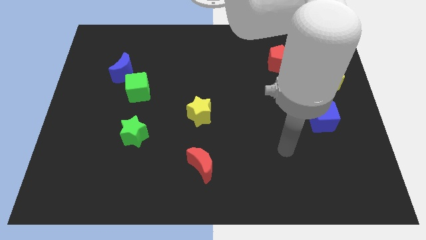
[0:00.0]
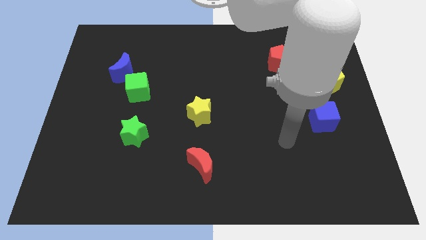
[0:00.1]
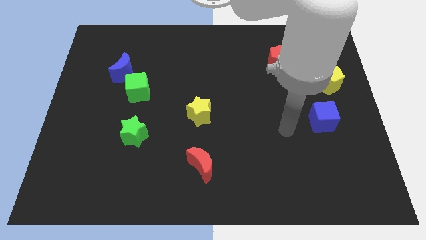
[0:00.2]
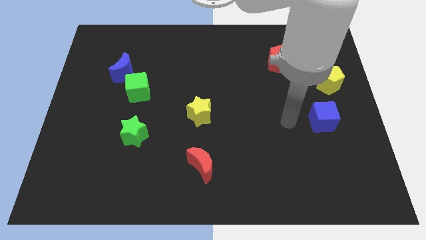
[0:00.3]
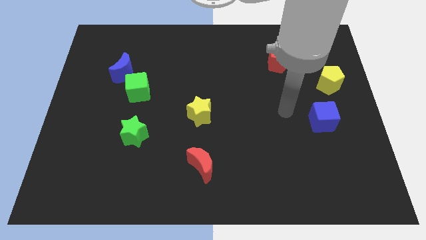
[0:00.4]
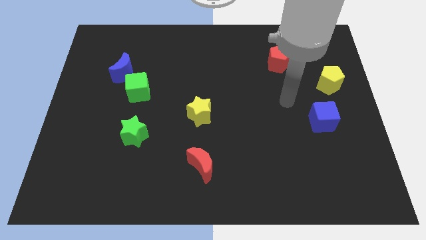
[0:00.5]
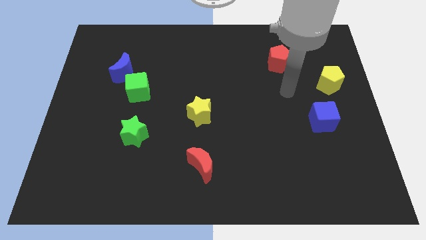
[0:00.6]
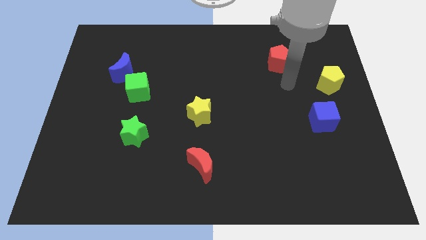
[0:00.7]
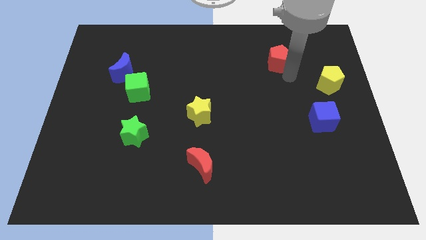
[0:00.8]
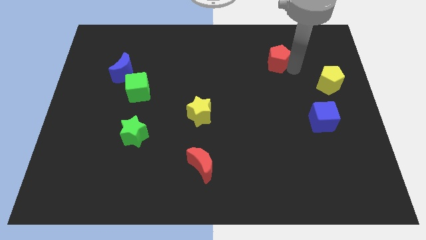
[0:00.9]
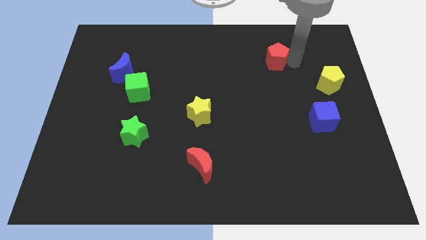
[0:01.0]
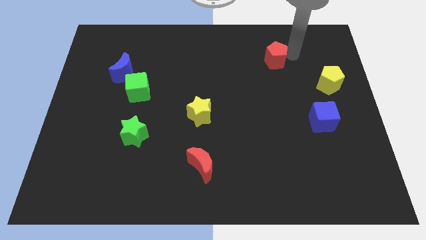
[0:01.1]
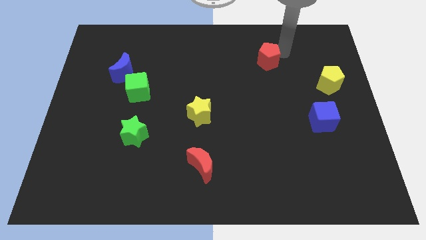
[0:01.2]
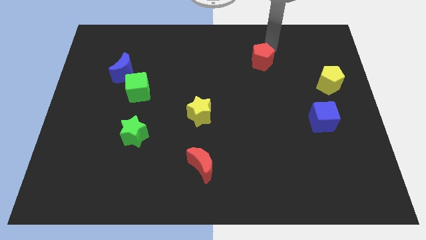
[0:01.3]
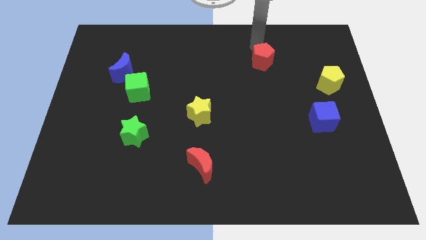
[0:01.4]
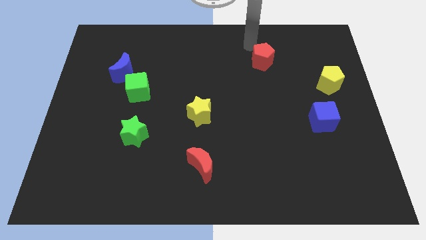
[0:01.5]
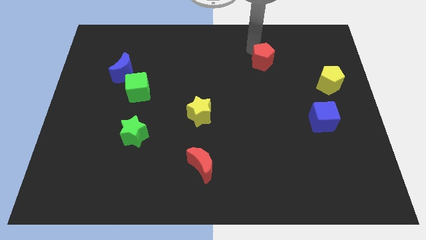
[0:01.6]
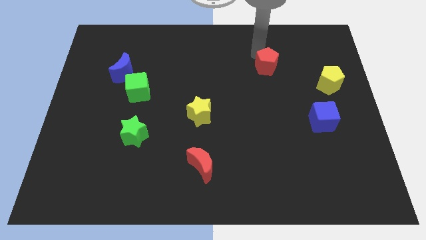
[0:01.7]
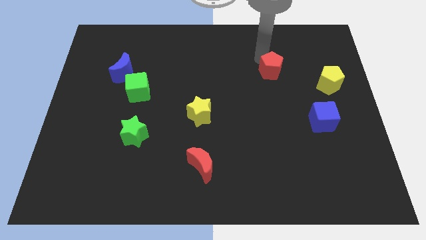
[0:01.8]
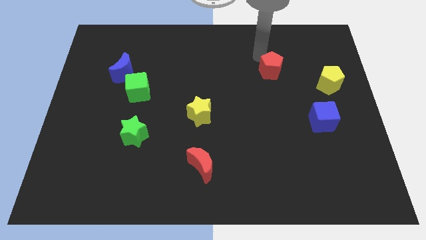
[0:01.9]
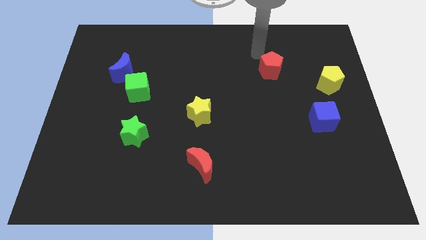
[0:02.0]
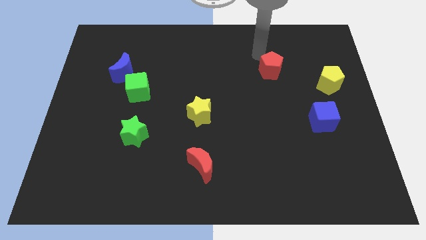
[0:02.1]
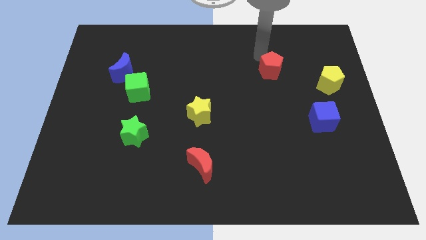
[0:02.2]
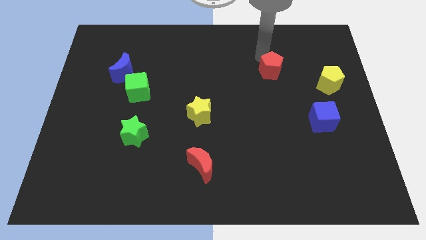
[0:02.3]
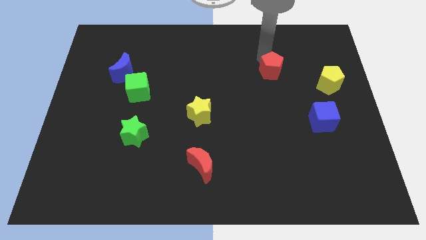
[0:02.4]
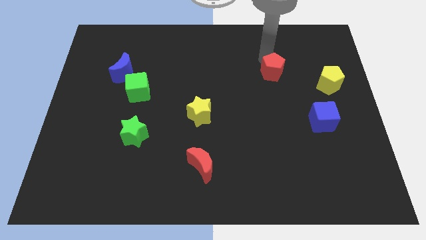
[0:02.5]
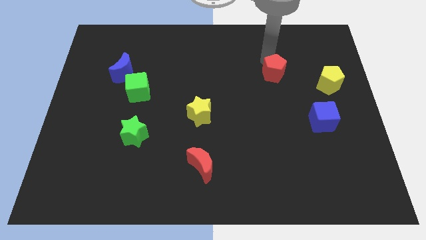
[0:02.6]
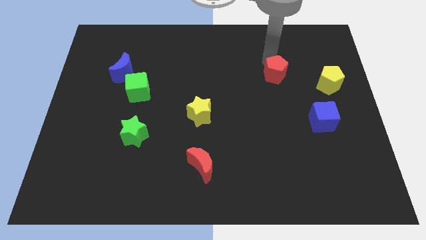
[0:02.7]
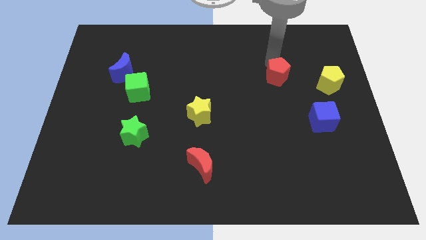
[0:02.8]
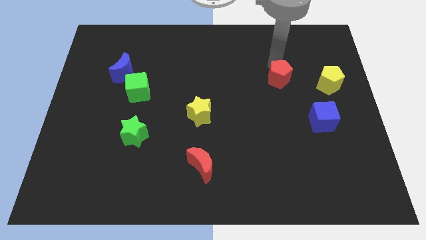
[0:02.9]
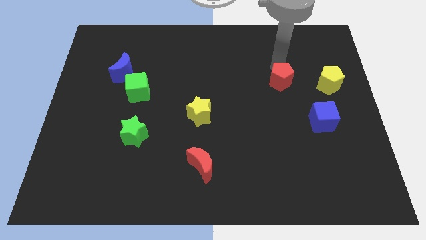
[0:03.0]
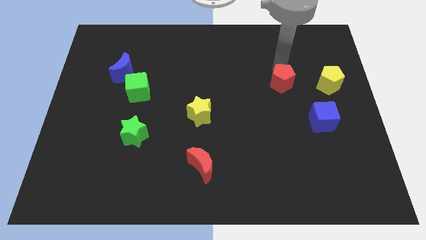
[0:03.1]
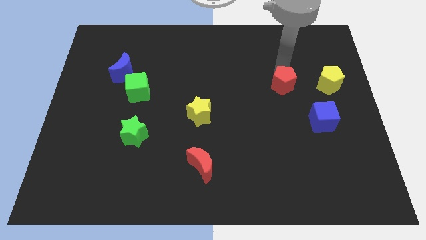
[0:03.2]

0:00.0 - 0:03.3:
push the red pentagon downwards slightly

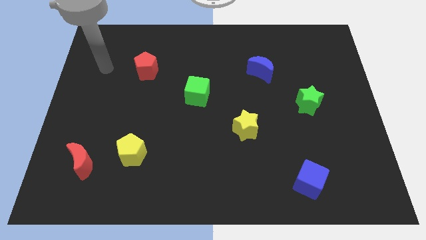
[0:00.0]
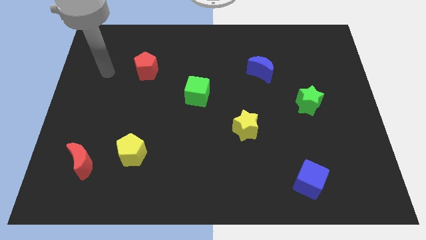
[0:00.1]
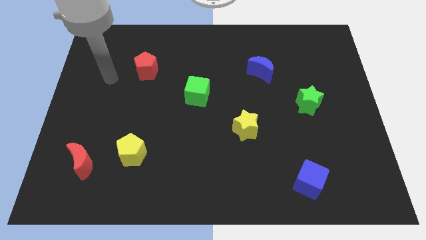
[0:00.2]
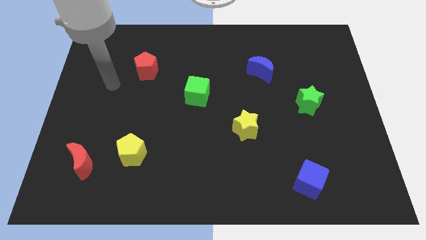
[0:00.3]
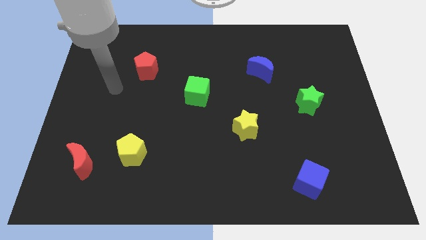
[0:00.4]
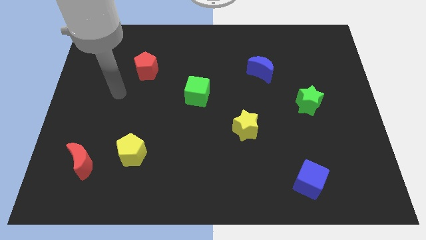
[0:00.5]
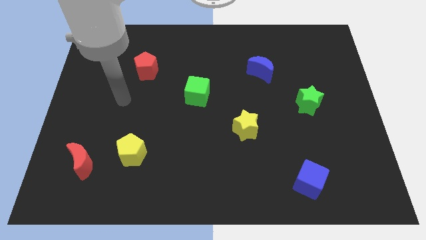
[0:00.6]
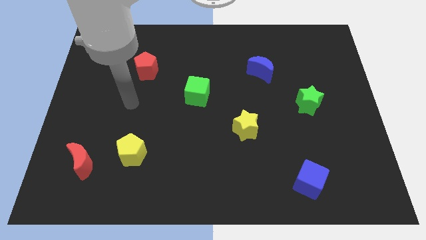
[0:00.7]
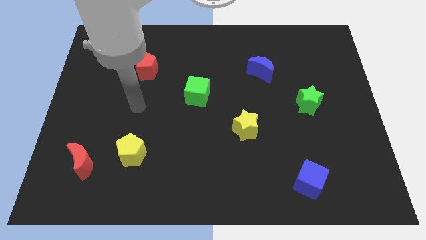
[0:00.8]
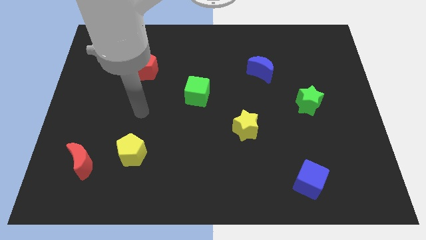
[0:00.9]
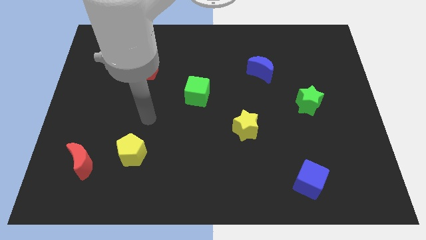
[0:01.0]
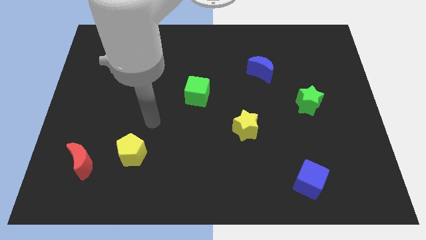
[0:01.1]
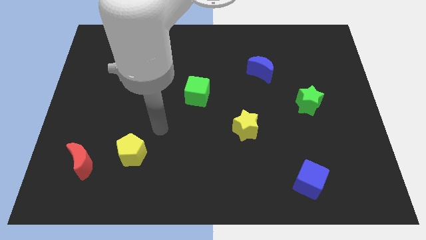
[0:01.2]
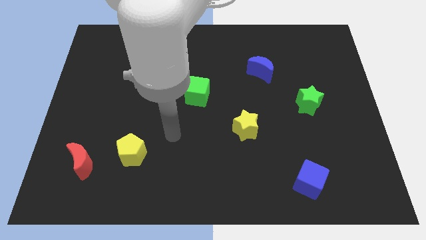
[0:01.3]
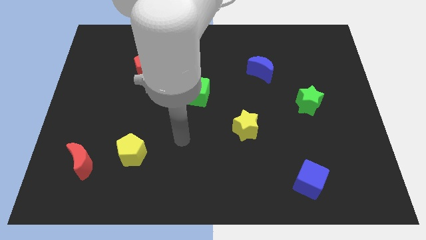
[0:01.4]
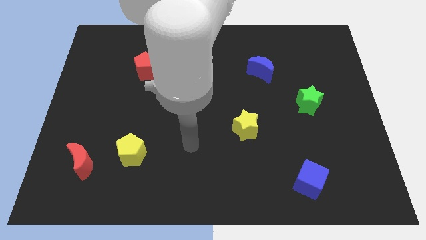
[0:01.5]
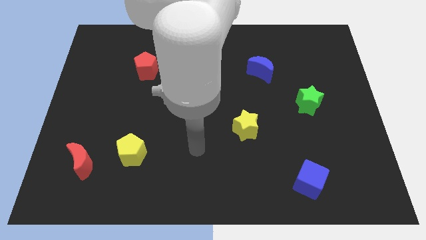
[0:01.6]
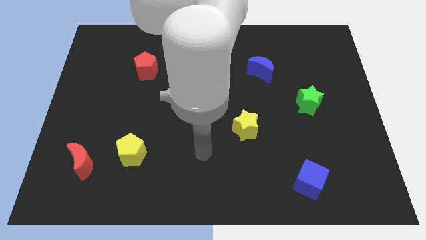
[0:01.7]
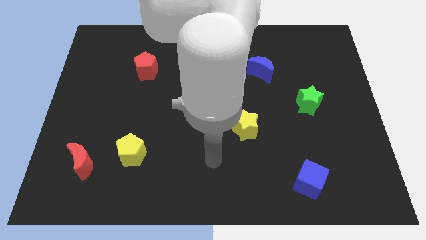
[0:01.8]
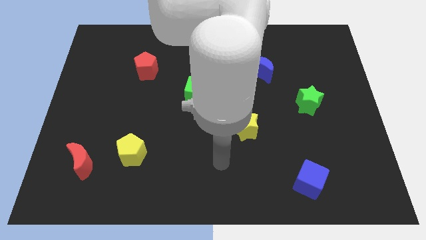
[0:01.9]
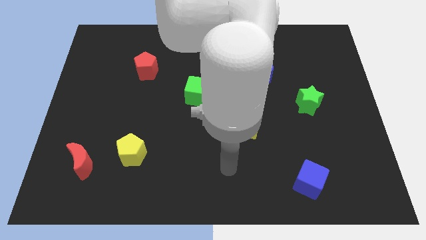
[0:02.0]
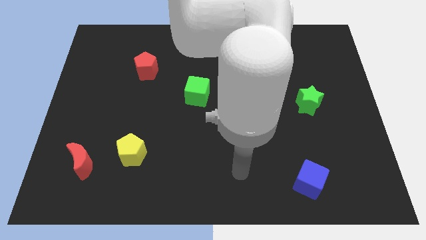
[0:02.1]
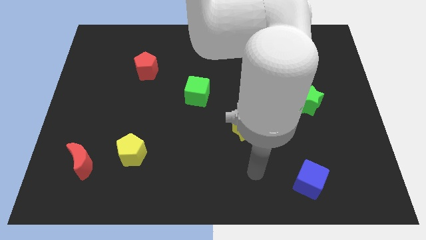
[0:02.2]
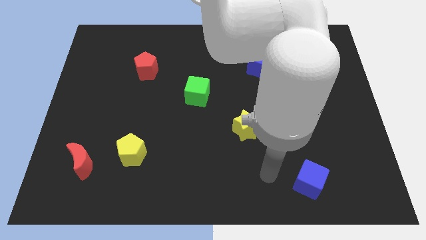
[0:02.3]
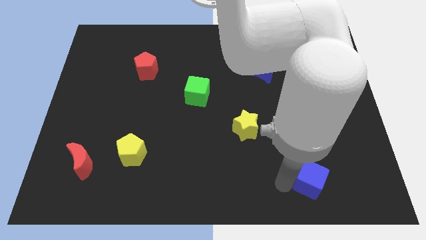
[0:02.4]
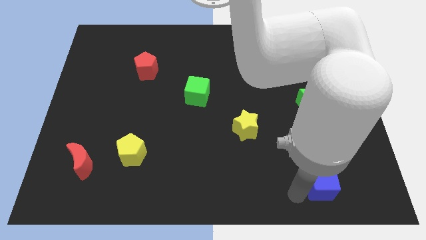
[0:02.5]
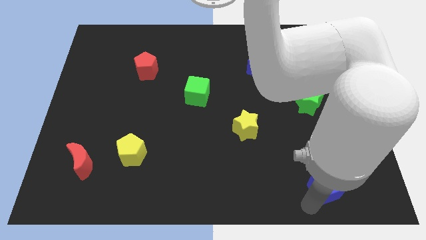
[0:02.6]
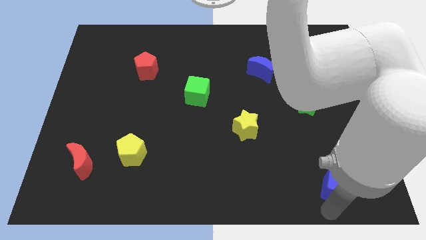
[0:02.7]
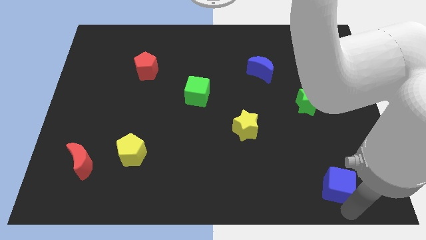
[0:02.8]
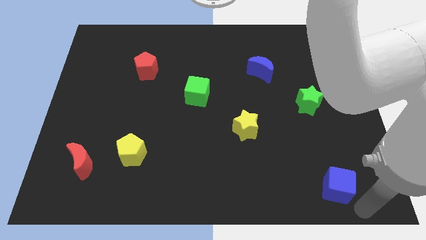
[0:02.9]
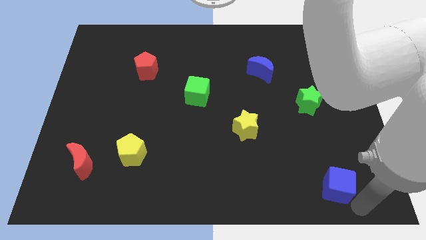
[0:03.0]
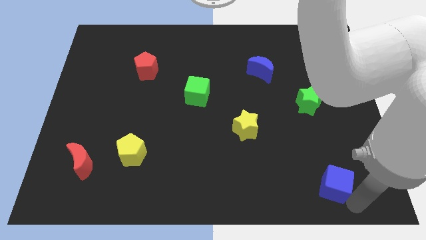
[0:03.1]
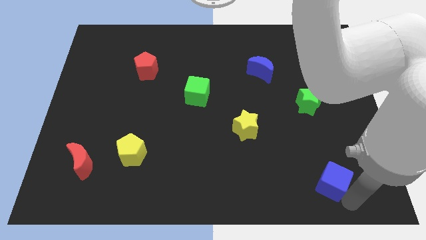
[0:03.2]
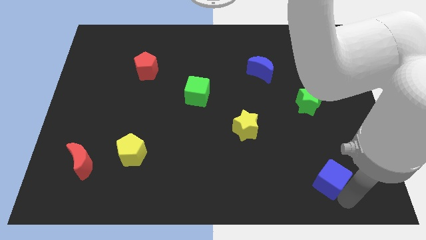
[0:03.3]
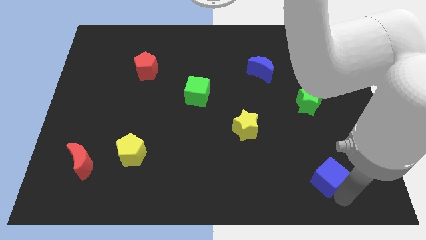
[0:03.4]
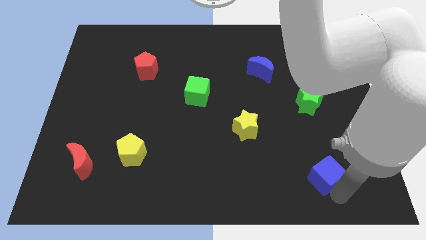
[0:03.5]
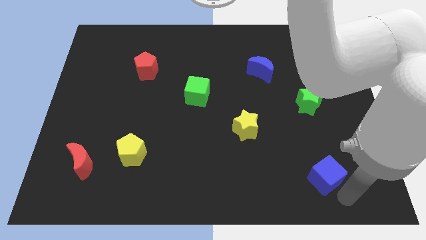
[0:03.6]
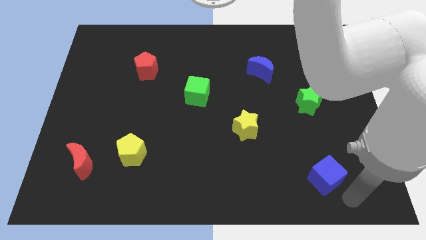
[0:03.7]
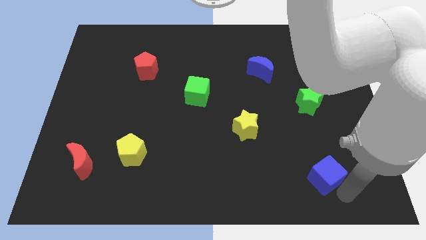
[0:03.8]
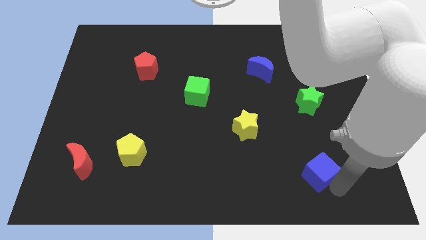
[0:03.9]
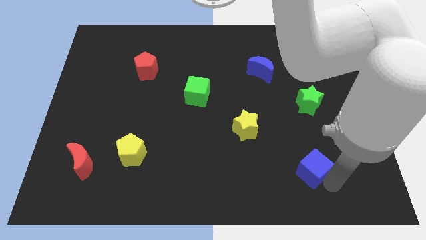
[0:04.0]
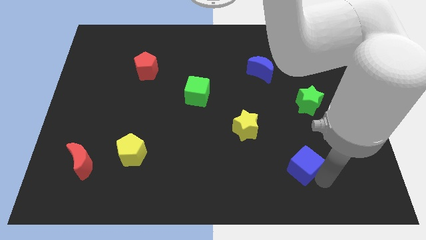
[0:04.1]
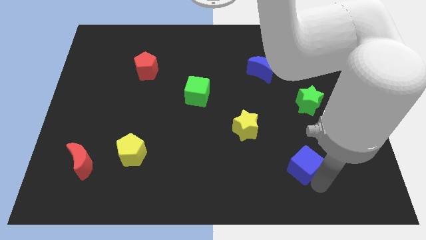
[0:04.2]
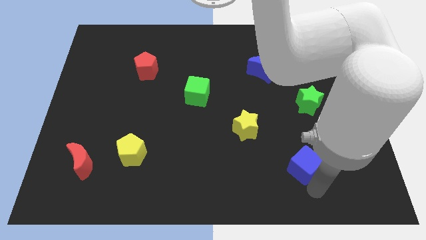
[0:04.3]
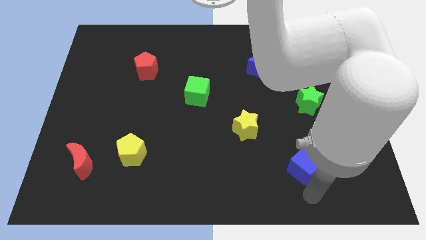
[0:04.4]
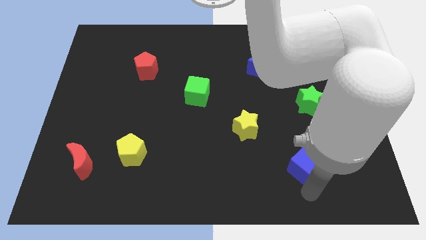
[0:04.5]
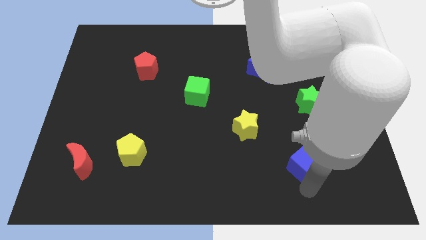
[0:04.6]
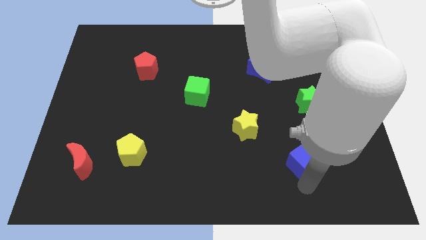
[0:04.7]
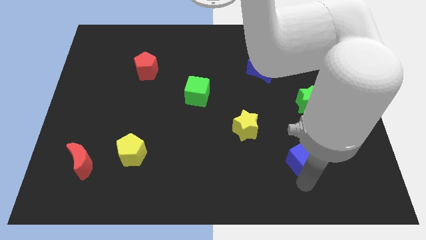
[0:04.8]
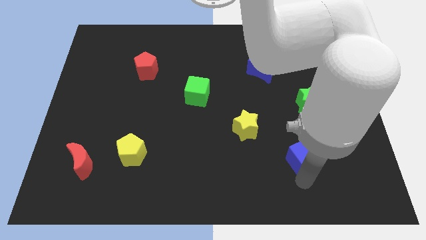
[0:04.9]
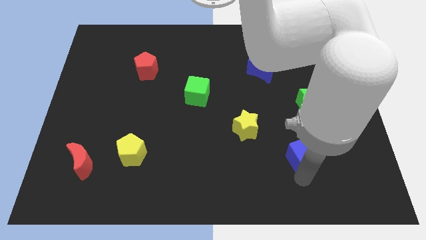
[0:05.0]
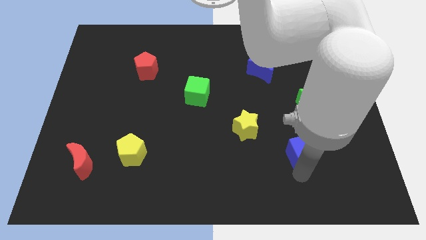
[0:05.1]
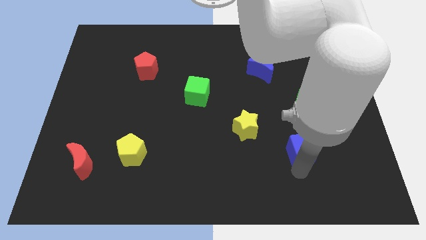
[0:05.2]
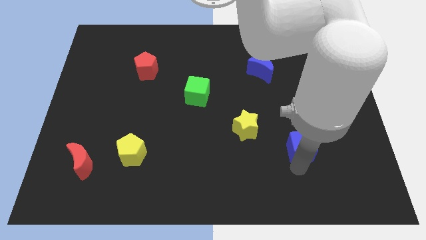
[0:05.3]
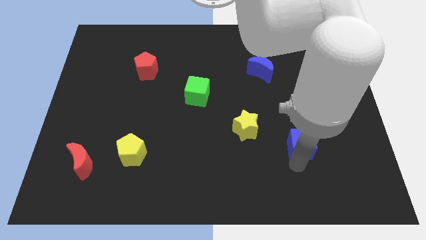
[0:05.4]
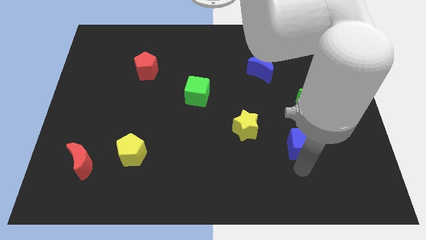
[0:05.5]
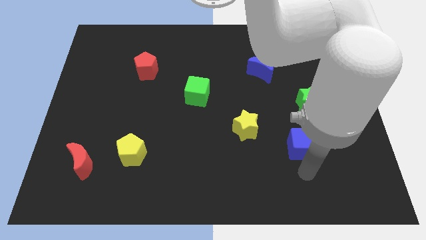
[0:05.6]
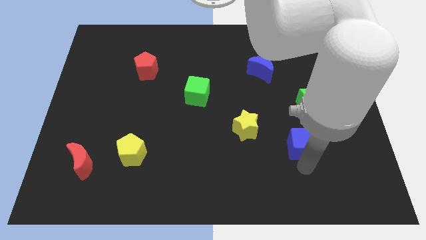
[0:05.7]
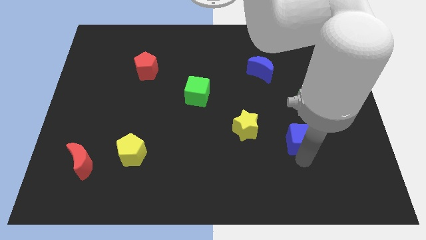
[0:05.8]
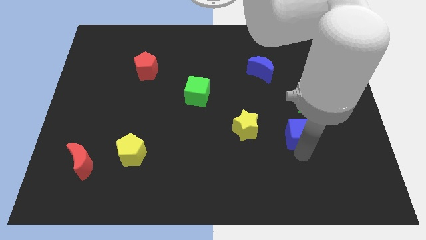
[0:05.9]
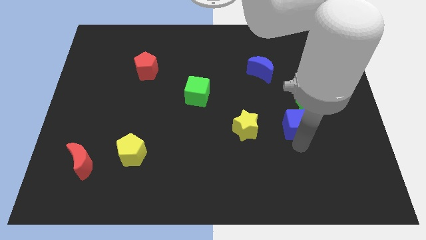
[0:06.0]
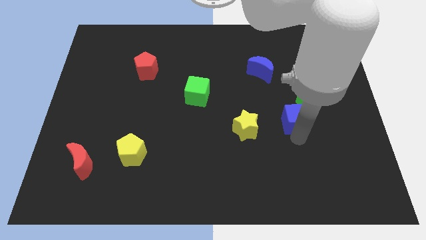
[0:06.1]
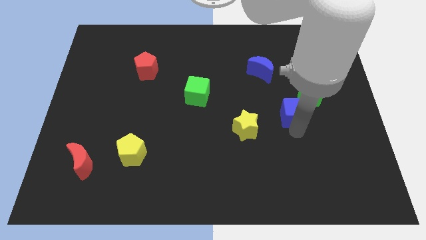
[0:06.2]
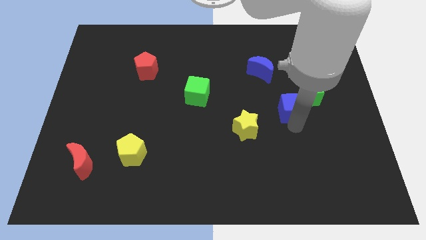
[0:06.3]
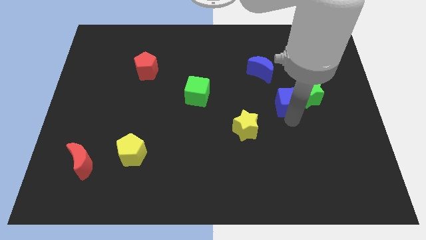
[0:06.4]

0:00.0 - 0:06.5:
slide the blue cube upwards
